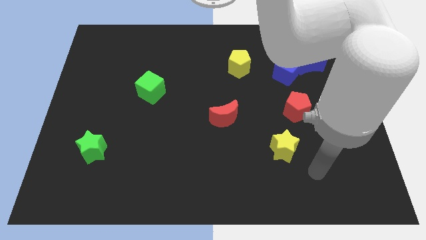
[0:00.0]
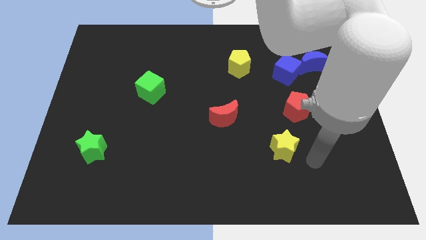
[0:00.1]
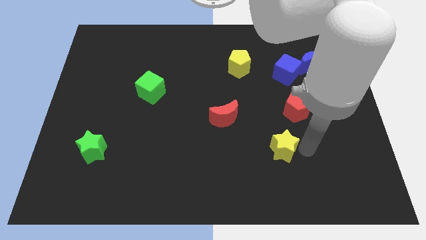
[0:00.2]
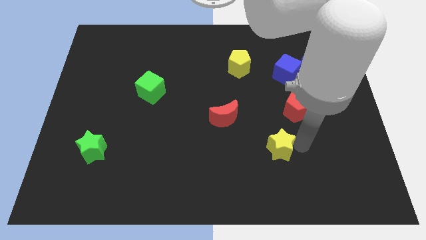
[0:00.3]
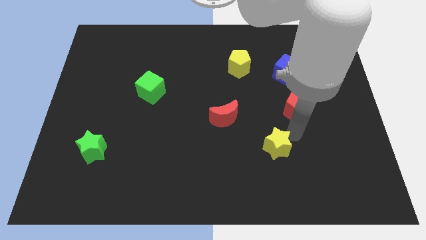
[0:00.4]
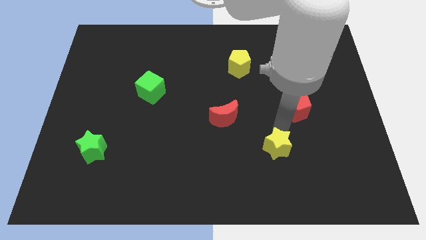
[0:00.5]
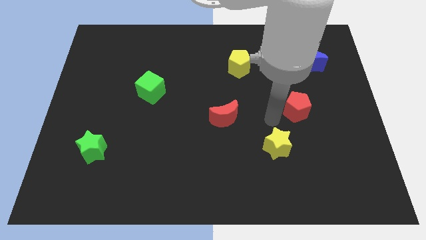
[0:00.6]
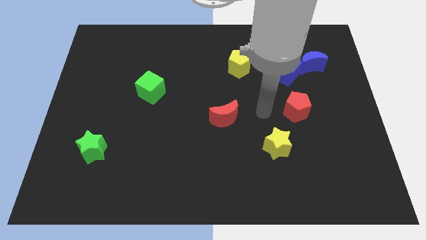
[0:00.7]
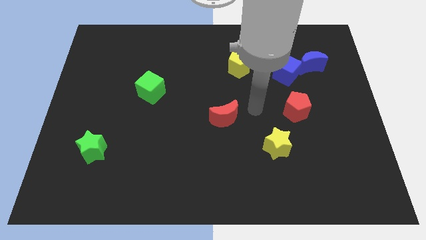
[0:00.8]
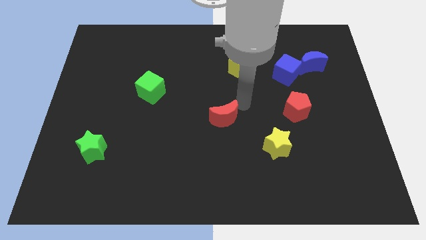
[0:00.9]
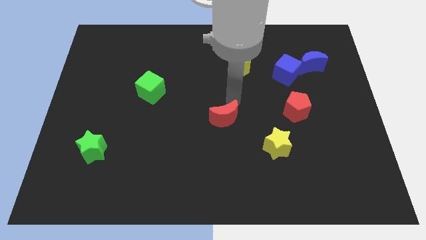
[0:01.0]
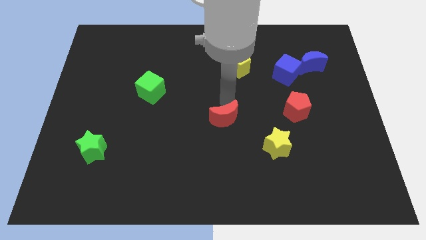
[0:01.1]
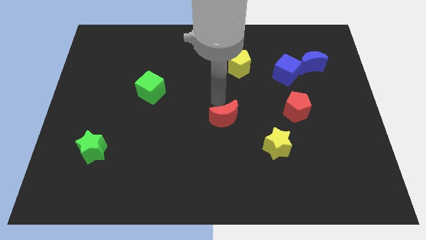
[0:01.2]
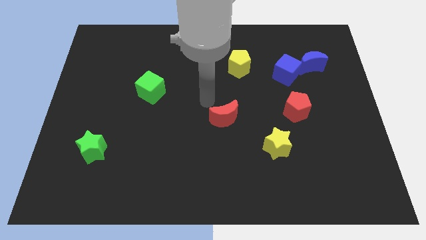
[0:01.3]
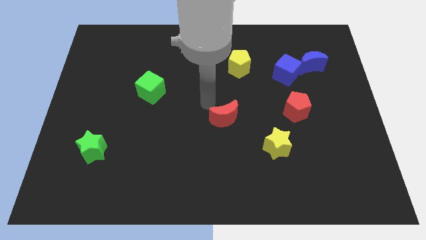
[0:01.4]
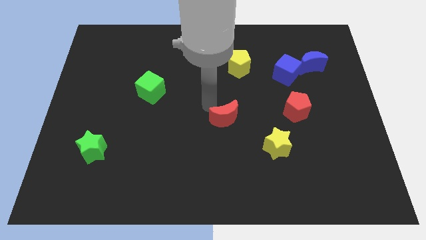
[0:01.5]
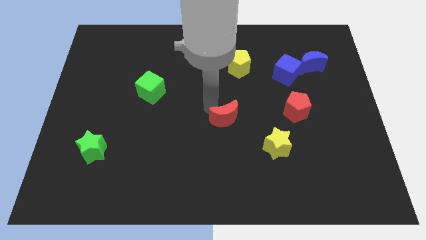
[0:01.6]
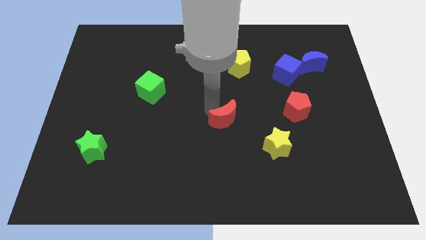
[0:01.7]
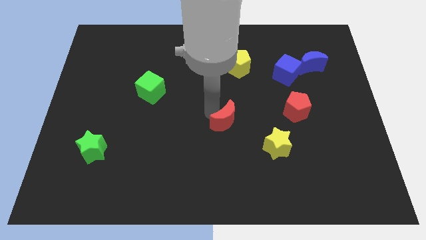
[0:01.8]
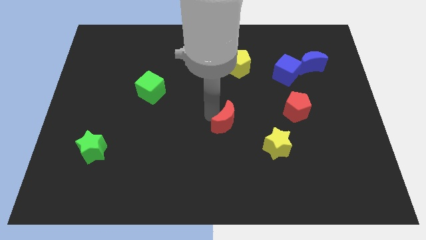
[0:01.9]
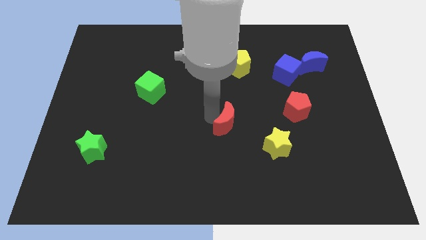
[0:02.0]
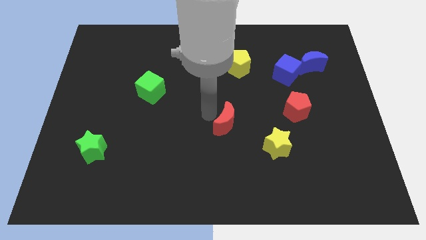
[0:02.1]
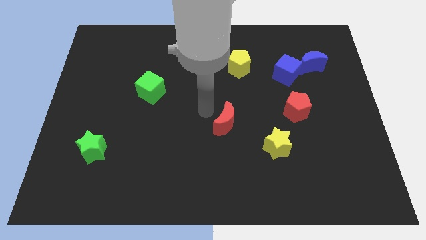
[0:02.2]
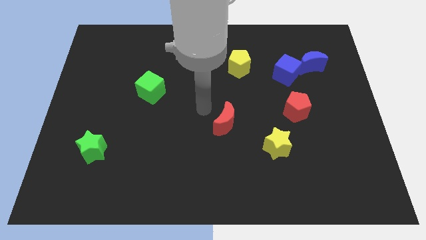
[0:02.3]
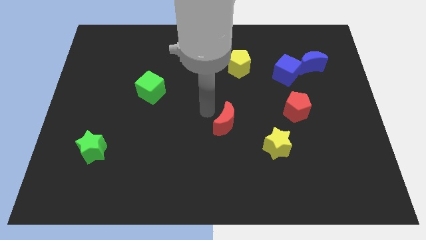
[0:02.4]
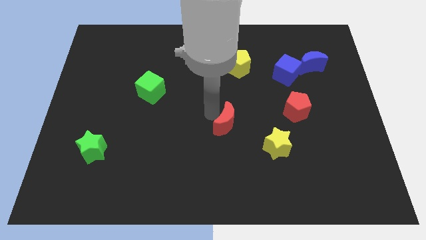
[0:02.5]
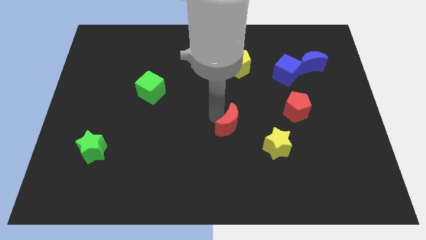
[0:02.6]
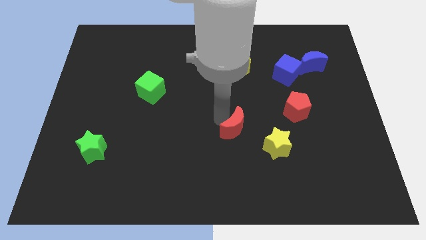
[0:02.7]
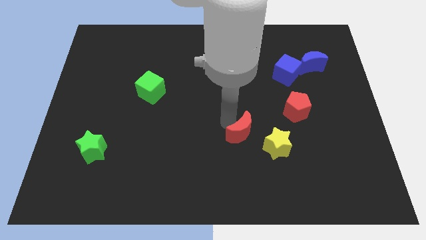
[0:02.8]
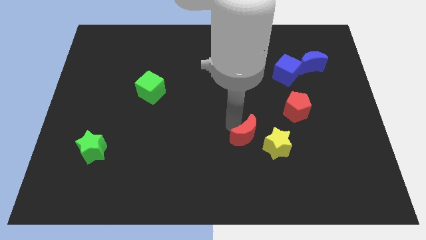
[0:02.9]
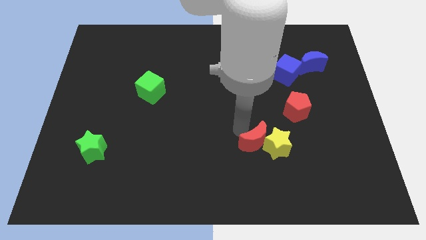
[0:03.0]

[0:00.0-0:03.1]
move the red moon down and to the right a bit

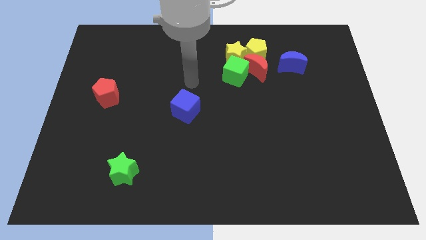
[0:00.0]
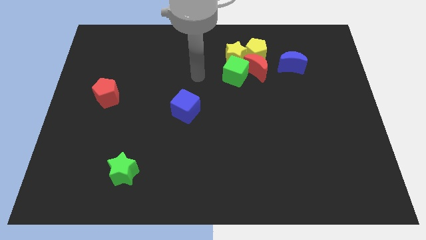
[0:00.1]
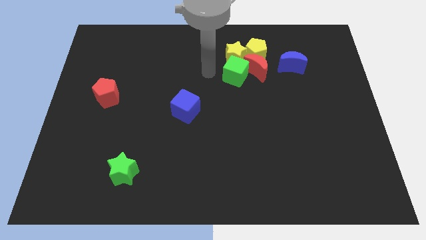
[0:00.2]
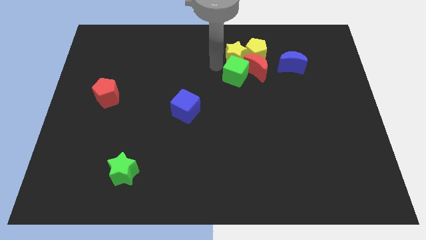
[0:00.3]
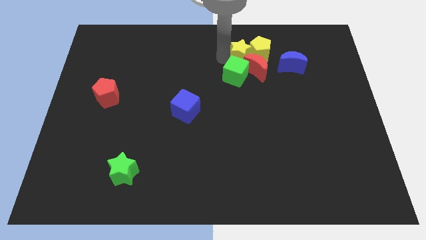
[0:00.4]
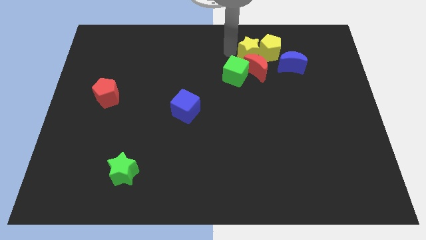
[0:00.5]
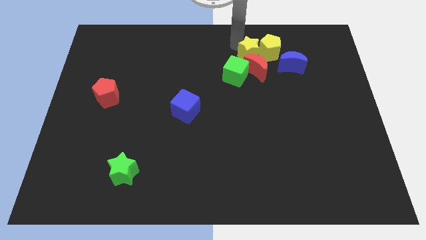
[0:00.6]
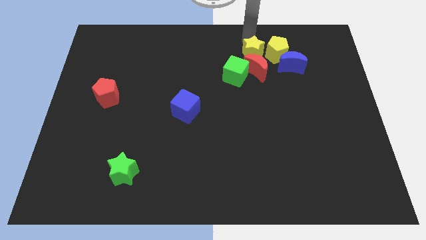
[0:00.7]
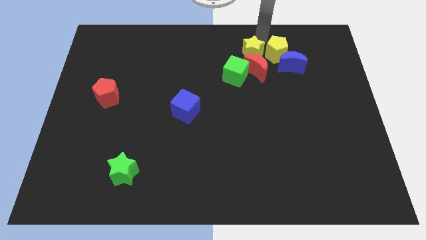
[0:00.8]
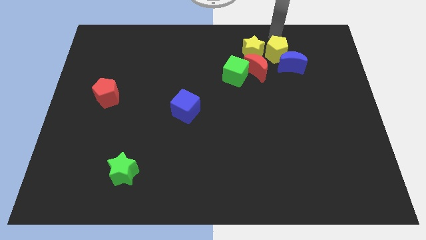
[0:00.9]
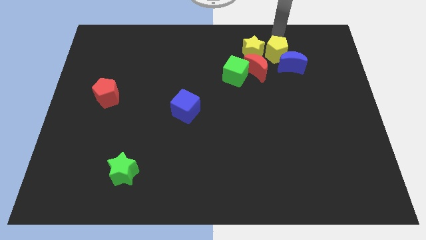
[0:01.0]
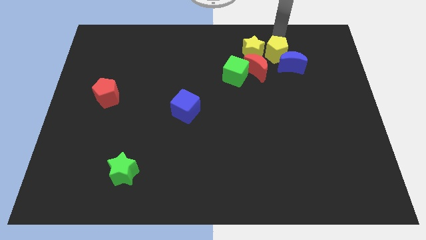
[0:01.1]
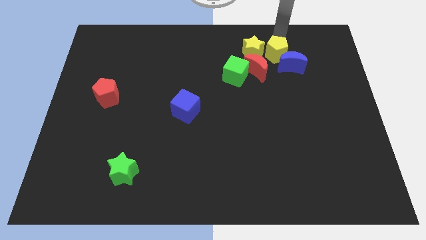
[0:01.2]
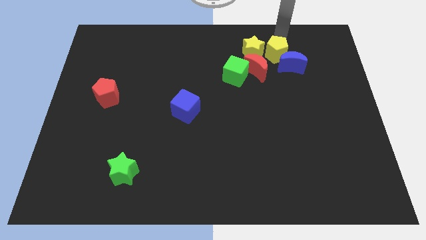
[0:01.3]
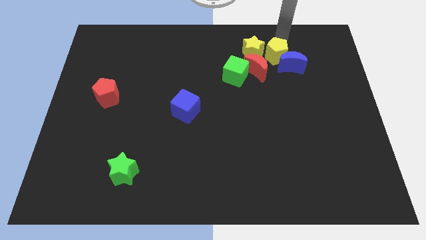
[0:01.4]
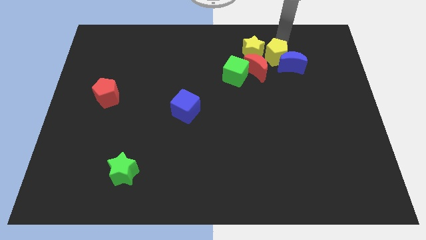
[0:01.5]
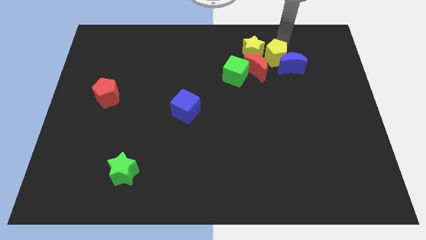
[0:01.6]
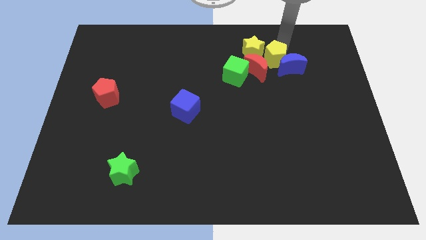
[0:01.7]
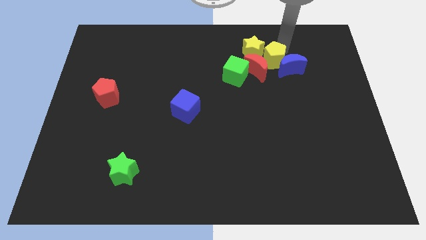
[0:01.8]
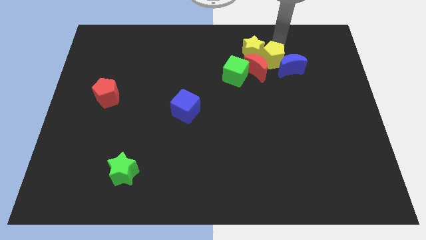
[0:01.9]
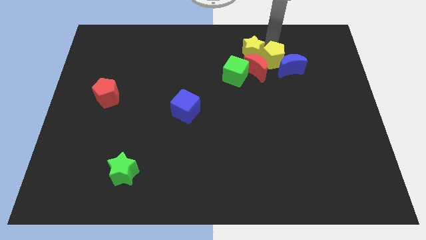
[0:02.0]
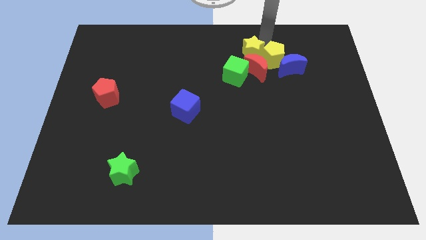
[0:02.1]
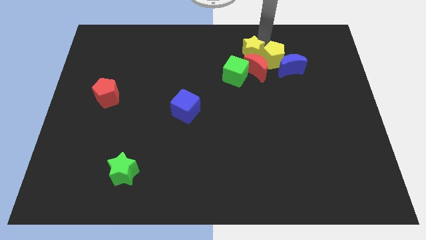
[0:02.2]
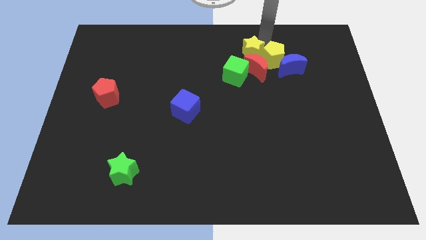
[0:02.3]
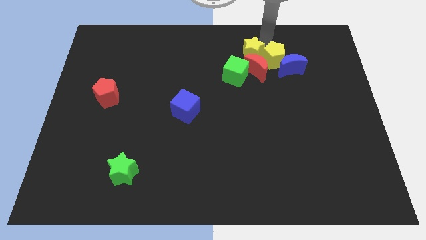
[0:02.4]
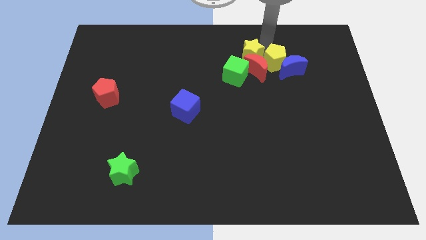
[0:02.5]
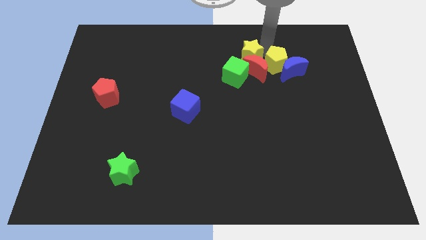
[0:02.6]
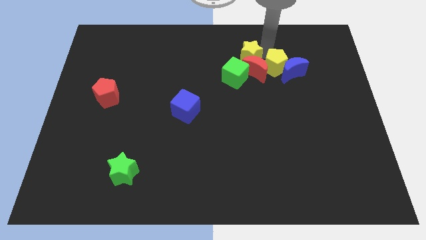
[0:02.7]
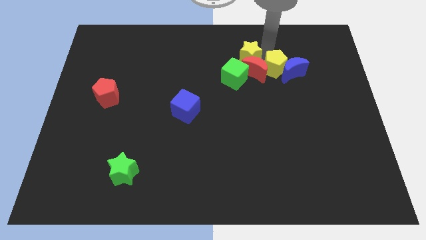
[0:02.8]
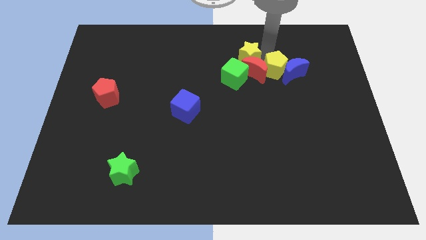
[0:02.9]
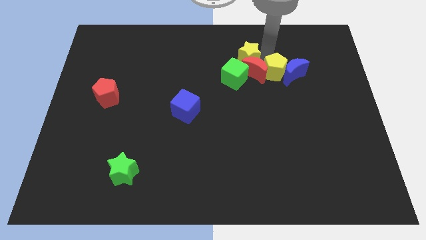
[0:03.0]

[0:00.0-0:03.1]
slightly slide the yellow pentagon downwards and then to the right

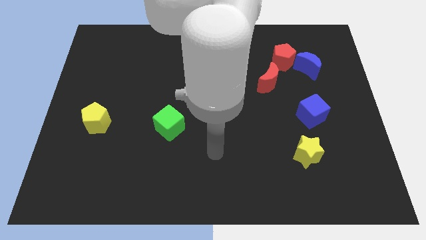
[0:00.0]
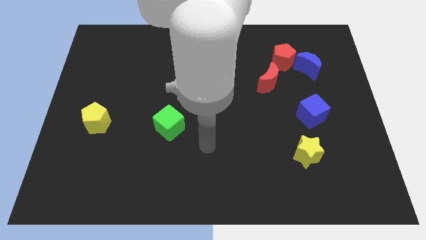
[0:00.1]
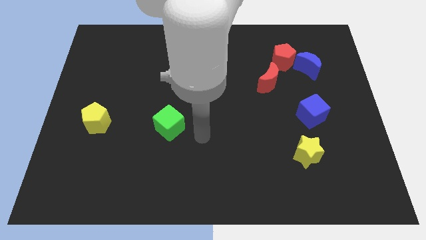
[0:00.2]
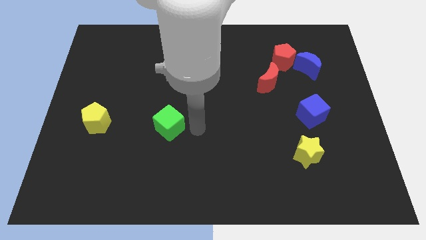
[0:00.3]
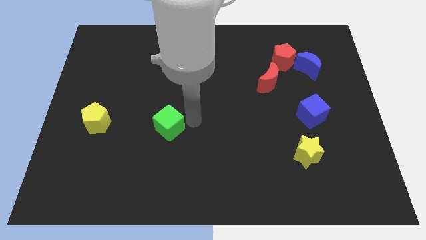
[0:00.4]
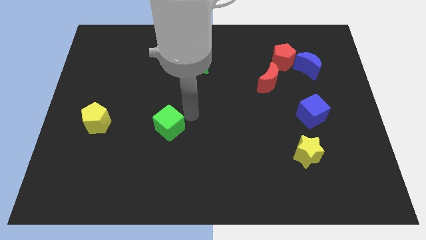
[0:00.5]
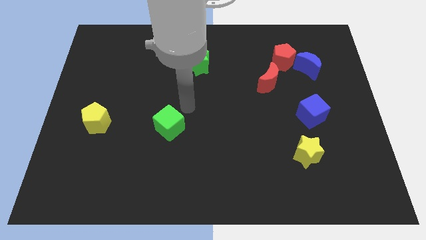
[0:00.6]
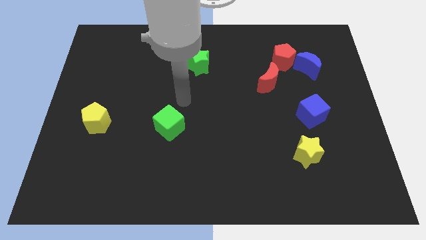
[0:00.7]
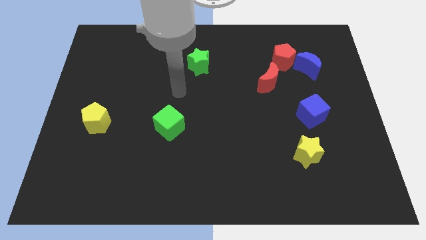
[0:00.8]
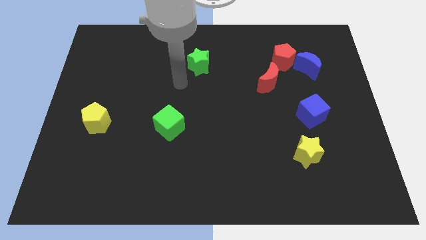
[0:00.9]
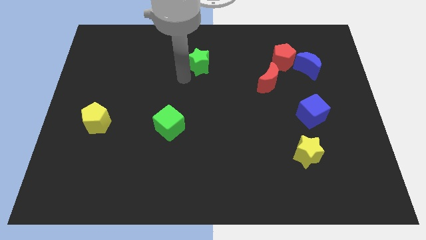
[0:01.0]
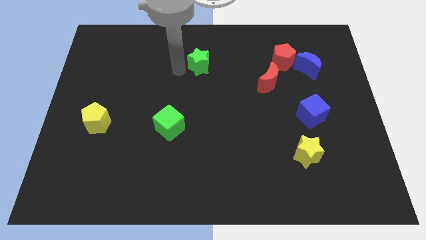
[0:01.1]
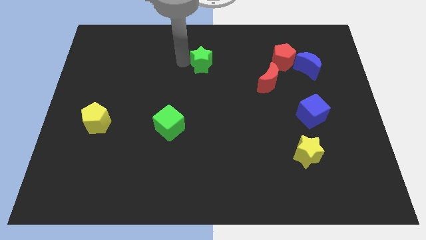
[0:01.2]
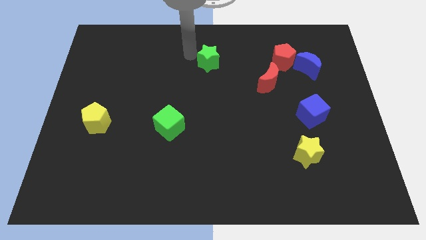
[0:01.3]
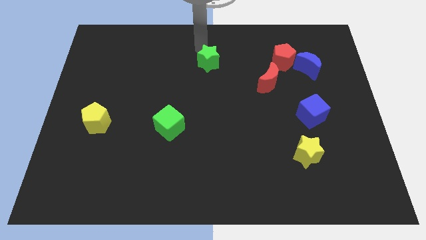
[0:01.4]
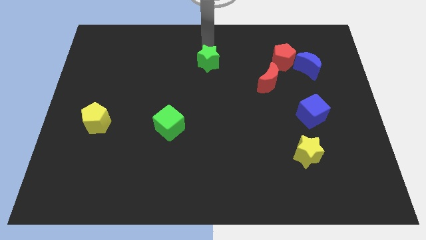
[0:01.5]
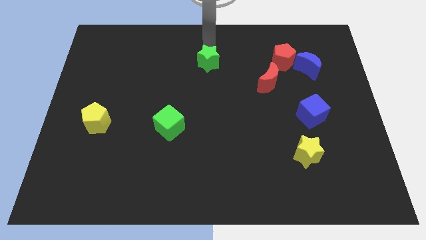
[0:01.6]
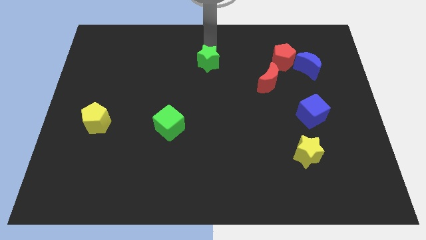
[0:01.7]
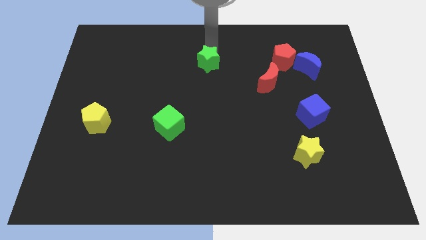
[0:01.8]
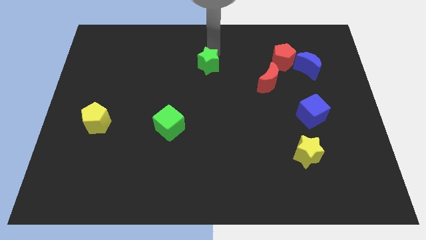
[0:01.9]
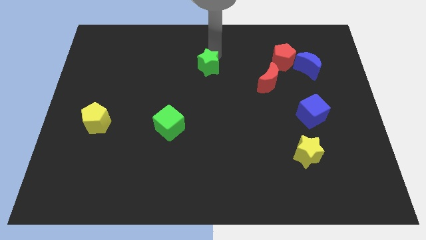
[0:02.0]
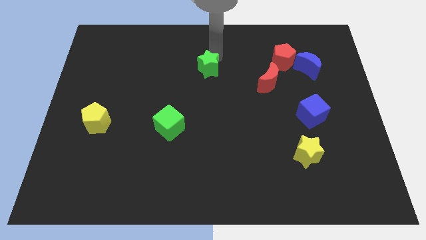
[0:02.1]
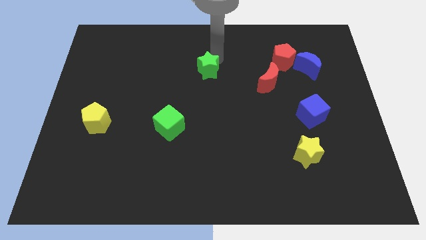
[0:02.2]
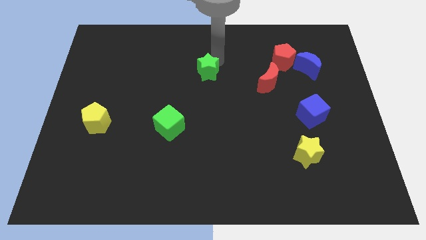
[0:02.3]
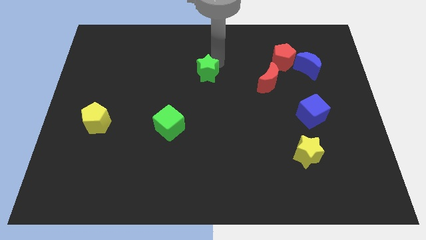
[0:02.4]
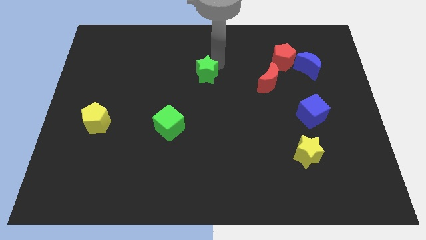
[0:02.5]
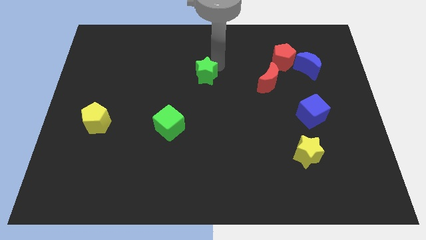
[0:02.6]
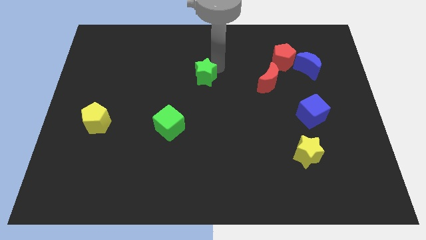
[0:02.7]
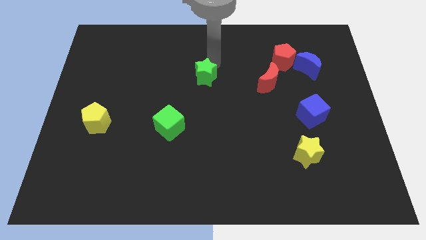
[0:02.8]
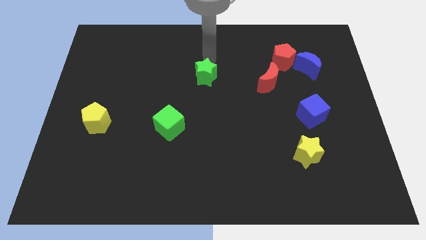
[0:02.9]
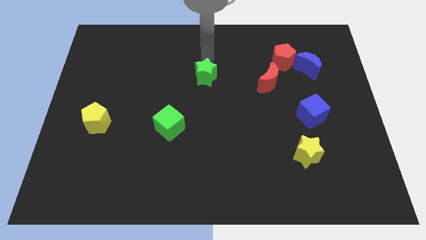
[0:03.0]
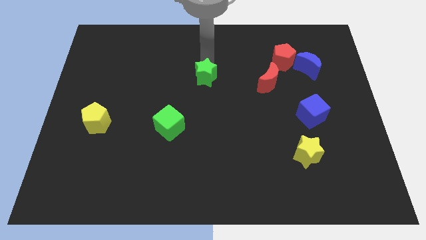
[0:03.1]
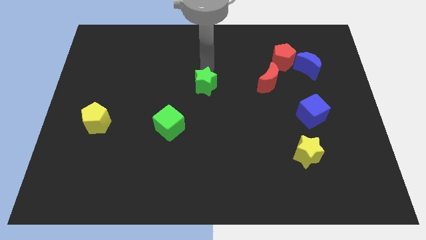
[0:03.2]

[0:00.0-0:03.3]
slightly slide the green star down
